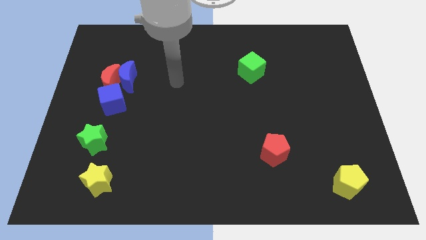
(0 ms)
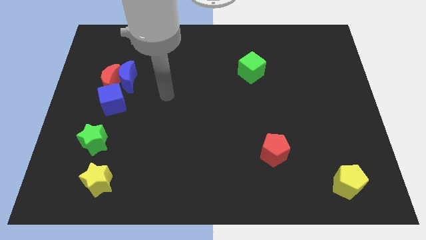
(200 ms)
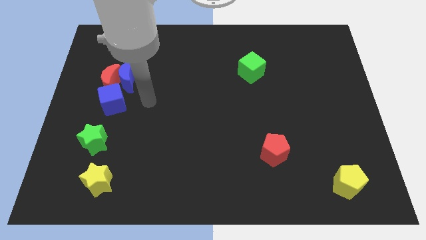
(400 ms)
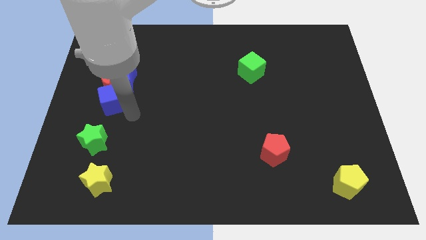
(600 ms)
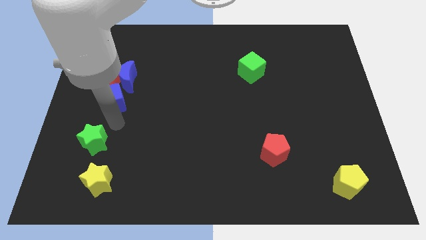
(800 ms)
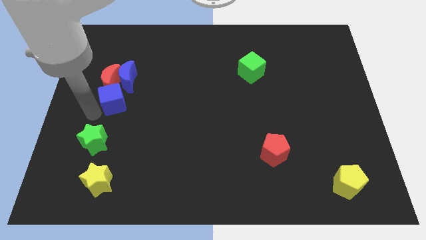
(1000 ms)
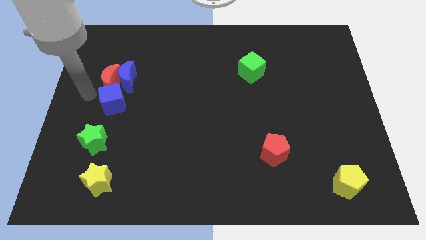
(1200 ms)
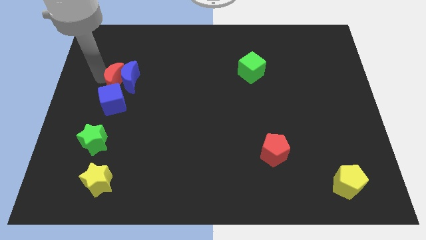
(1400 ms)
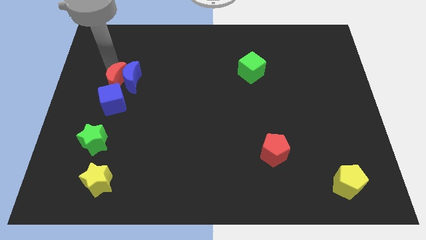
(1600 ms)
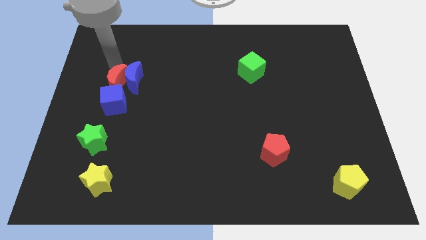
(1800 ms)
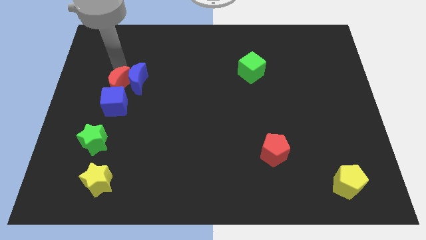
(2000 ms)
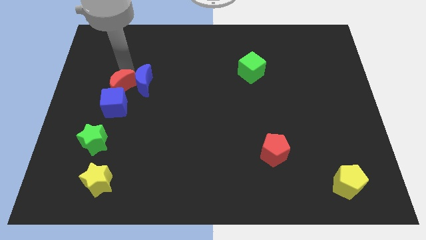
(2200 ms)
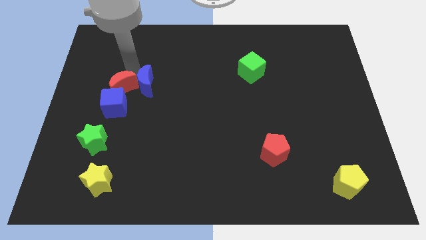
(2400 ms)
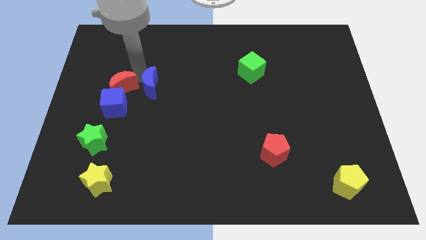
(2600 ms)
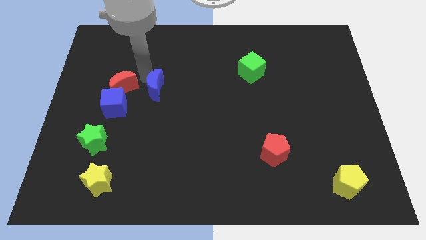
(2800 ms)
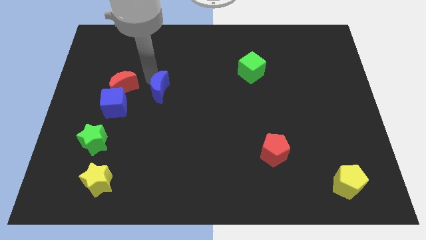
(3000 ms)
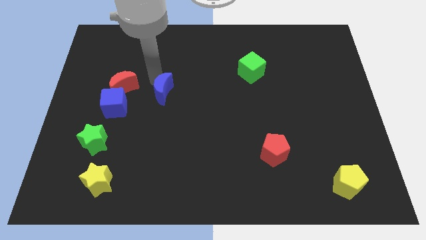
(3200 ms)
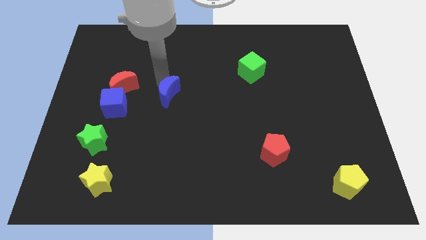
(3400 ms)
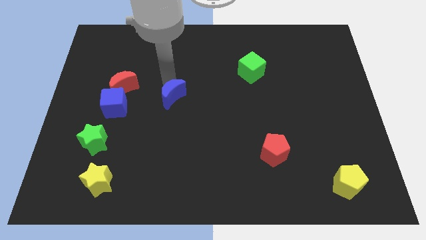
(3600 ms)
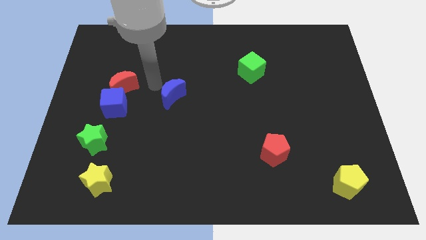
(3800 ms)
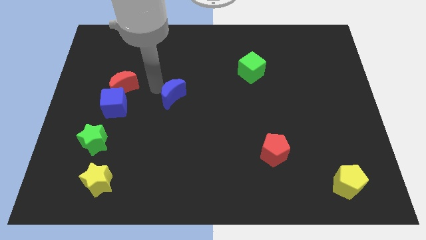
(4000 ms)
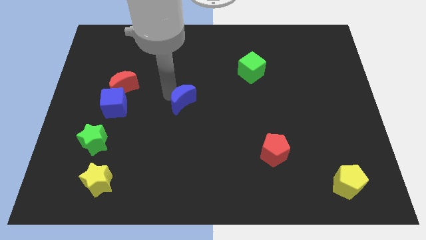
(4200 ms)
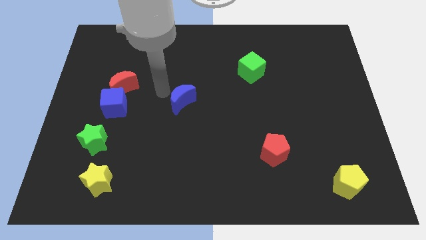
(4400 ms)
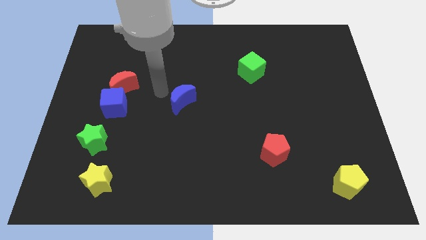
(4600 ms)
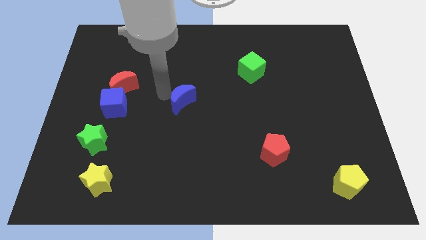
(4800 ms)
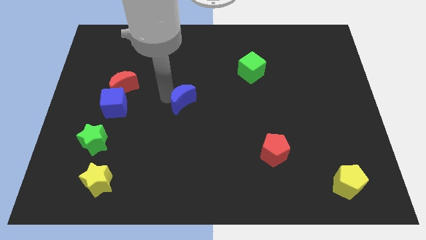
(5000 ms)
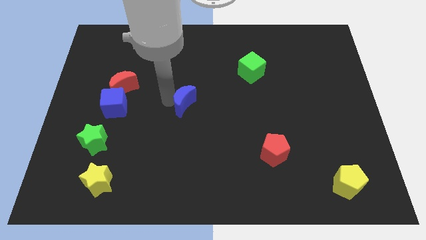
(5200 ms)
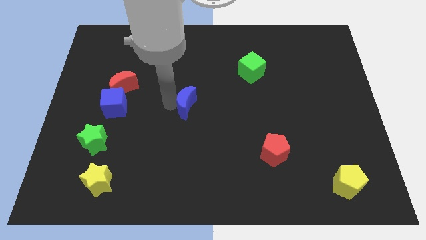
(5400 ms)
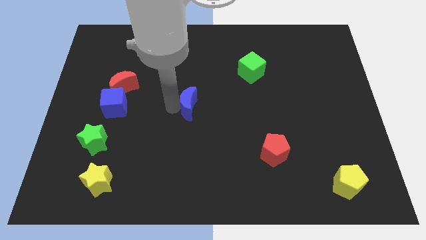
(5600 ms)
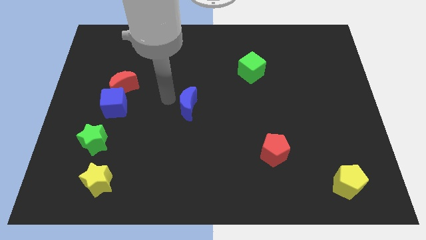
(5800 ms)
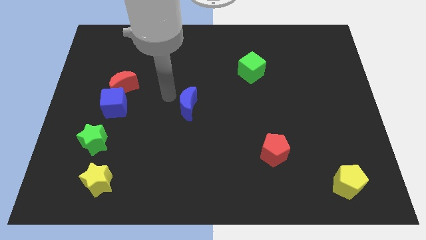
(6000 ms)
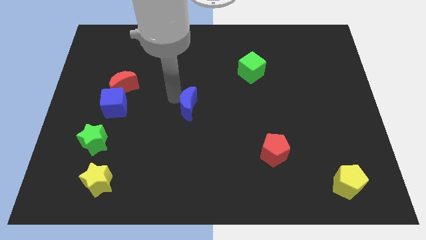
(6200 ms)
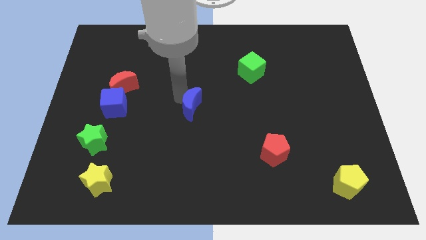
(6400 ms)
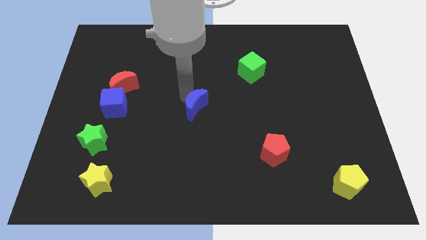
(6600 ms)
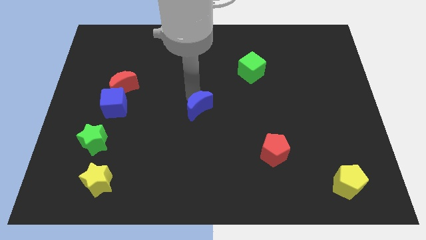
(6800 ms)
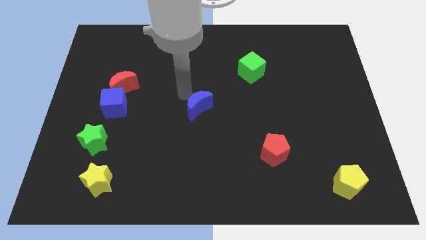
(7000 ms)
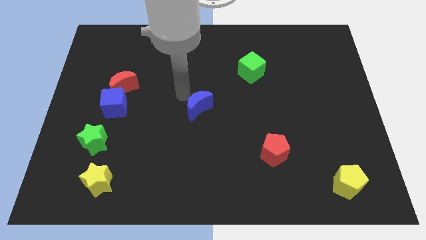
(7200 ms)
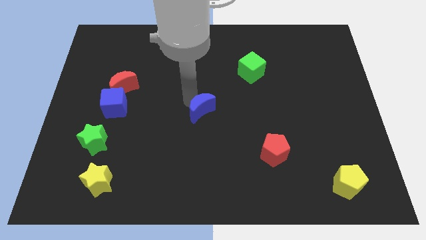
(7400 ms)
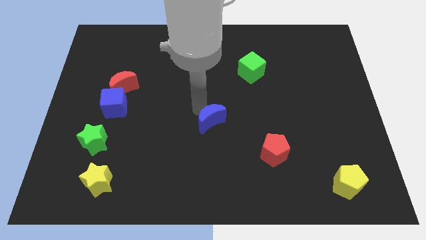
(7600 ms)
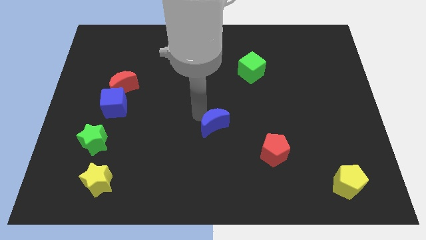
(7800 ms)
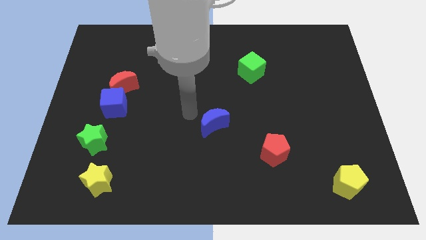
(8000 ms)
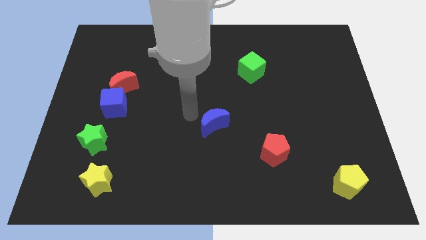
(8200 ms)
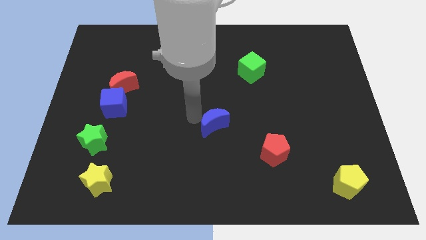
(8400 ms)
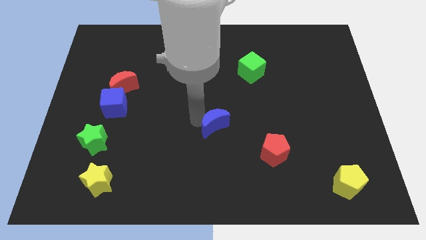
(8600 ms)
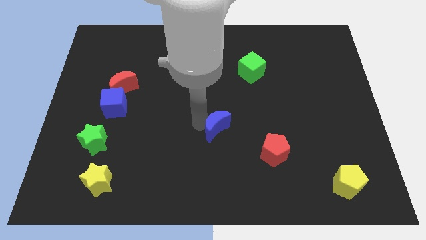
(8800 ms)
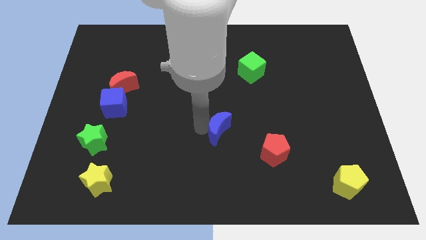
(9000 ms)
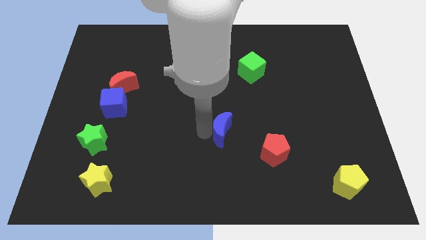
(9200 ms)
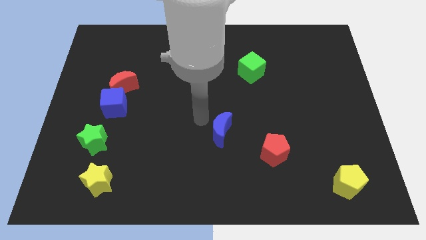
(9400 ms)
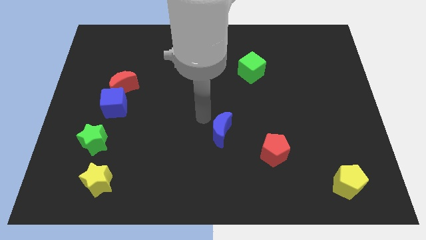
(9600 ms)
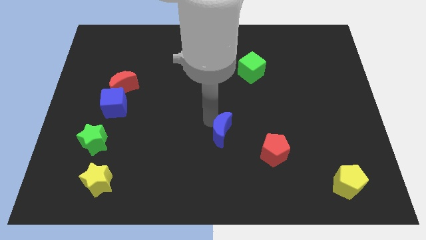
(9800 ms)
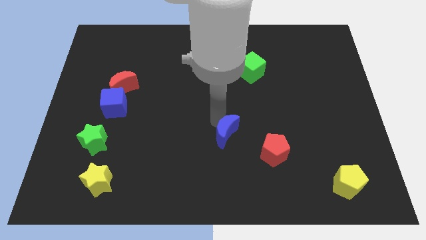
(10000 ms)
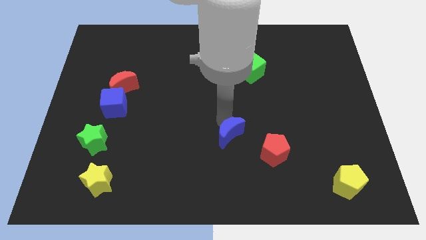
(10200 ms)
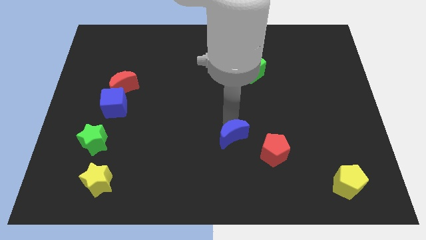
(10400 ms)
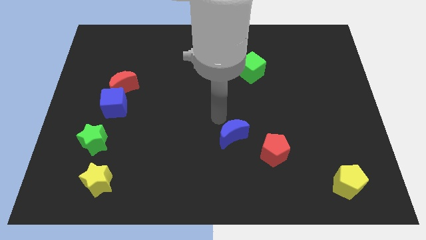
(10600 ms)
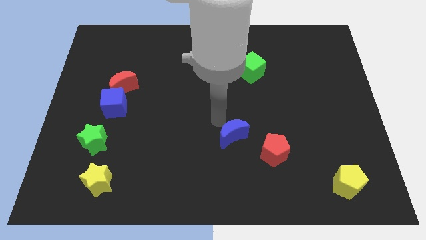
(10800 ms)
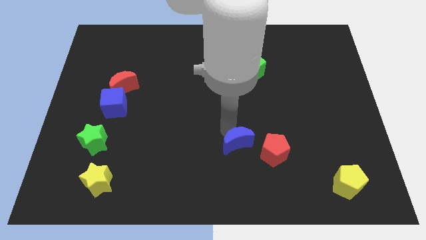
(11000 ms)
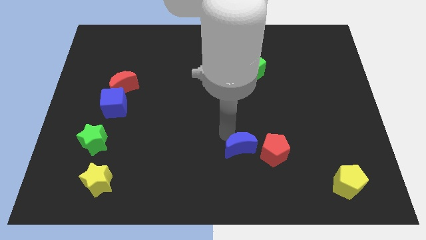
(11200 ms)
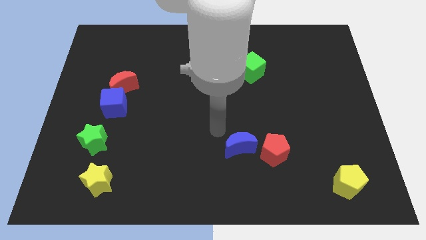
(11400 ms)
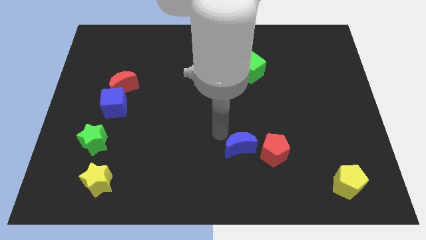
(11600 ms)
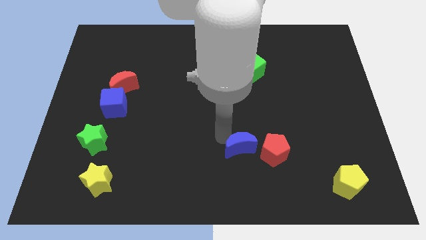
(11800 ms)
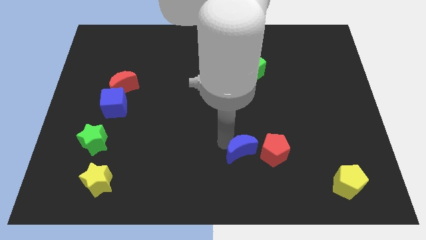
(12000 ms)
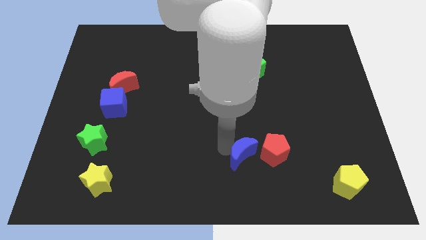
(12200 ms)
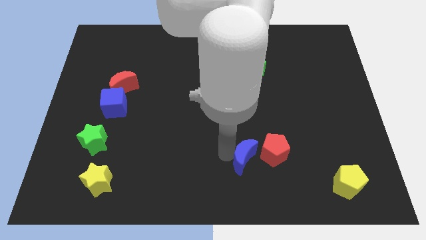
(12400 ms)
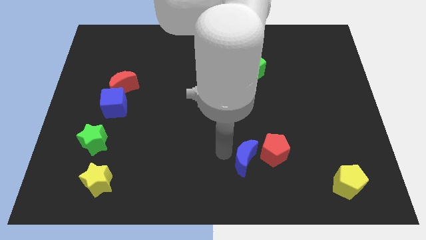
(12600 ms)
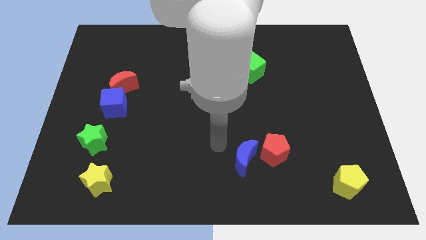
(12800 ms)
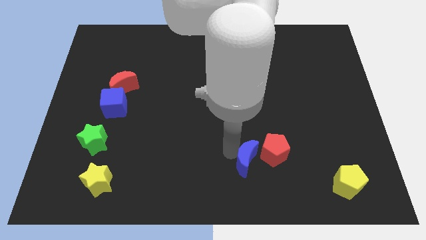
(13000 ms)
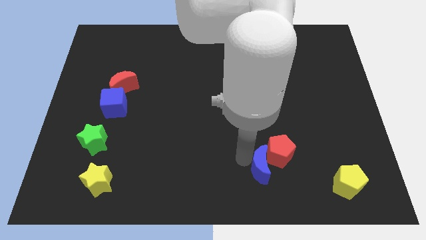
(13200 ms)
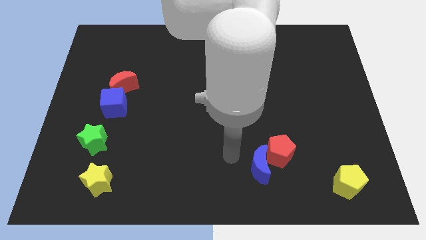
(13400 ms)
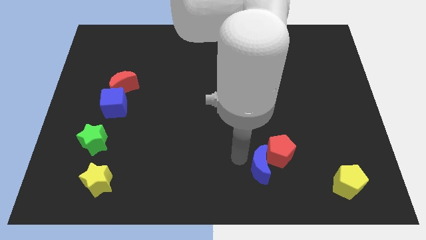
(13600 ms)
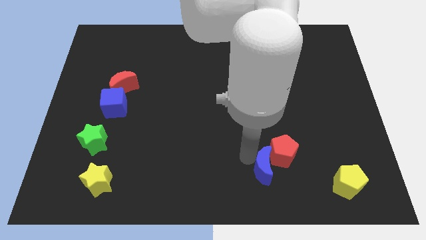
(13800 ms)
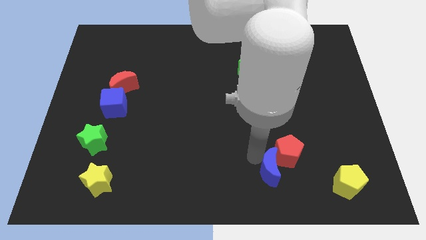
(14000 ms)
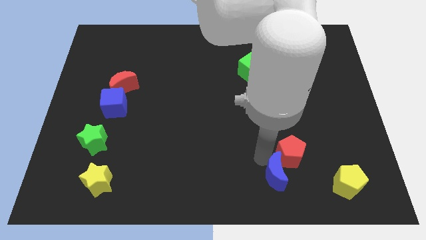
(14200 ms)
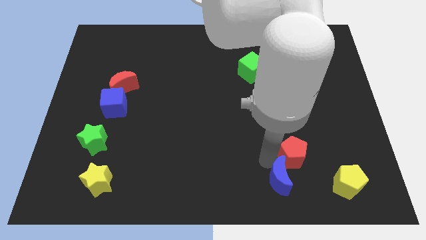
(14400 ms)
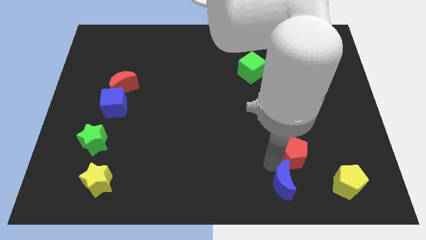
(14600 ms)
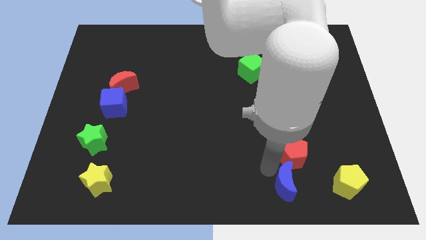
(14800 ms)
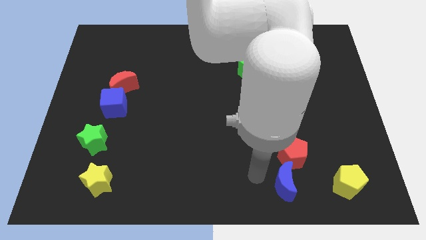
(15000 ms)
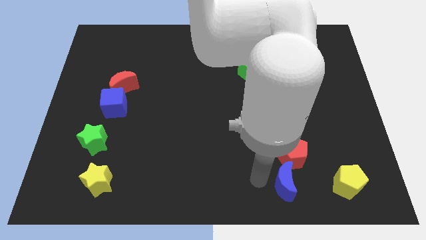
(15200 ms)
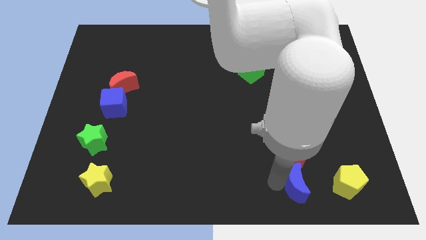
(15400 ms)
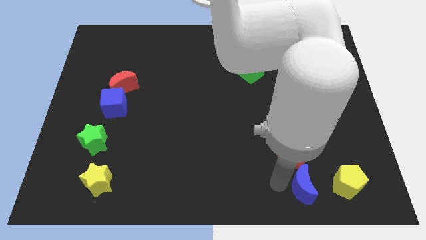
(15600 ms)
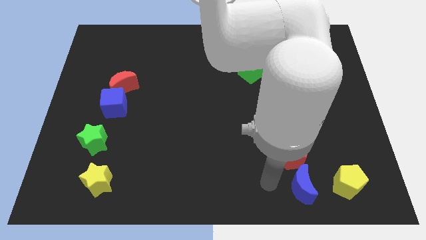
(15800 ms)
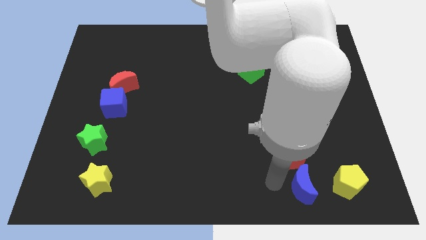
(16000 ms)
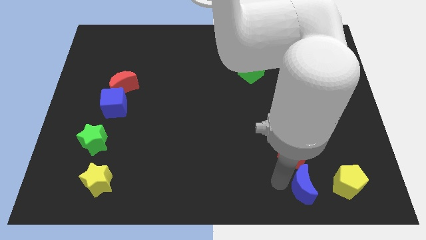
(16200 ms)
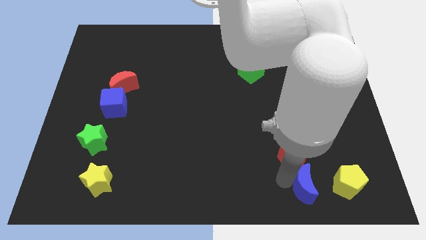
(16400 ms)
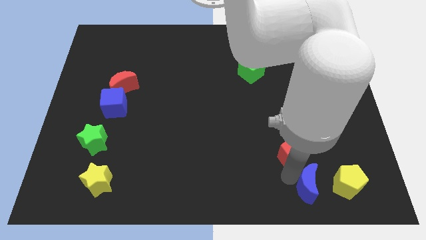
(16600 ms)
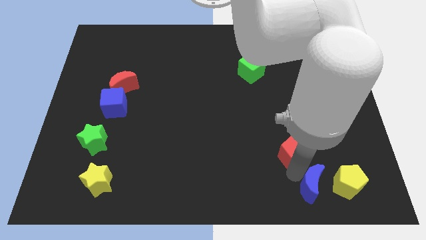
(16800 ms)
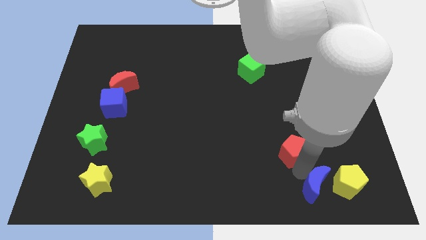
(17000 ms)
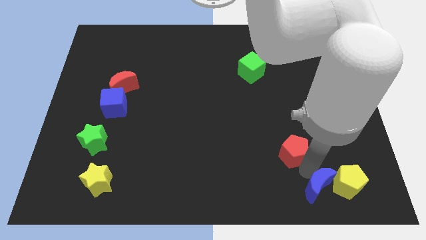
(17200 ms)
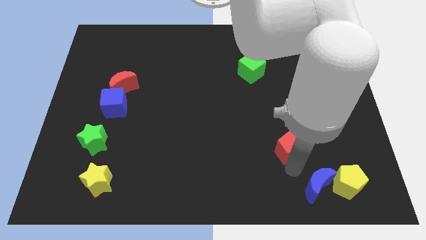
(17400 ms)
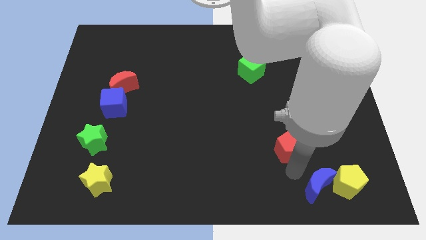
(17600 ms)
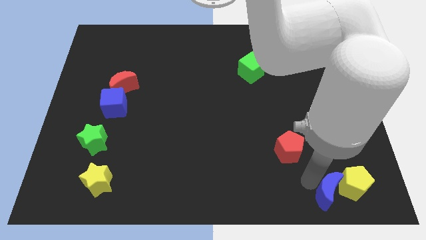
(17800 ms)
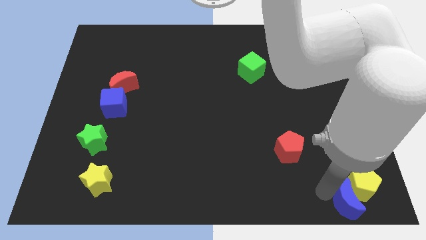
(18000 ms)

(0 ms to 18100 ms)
slide the blue moon to the bottom right of the board
